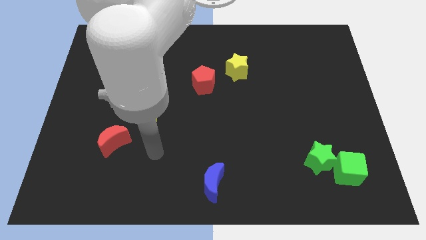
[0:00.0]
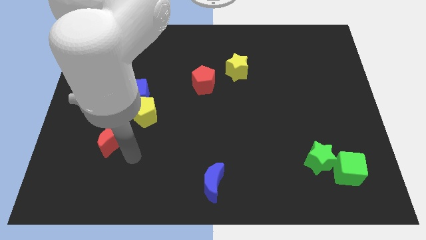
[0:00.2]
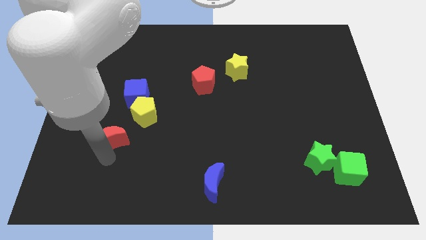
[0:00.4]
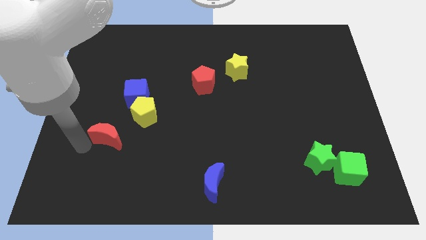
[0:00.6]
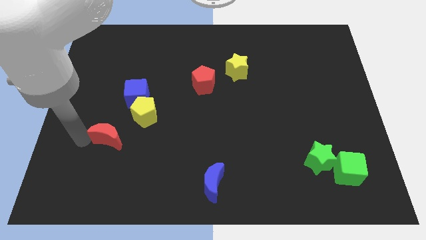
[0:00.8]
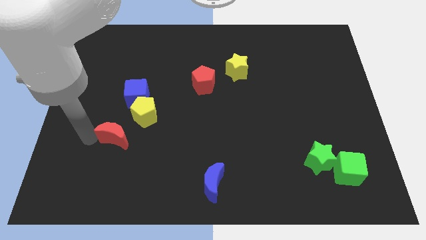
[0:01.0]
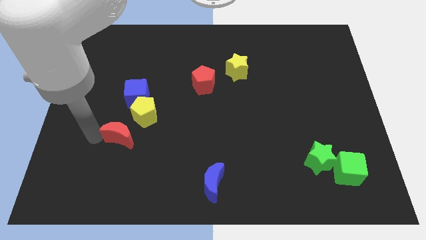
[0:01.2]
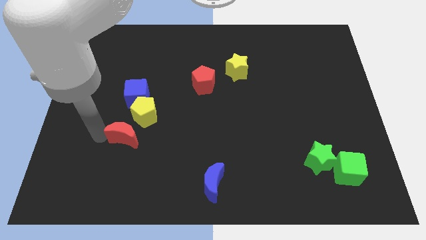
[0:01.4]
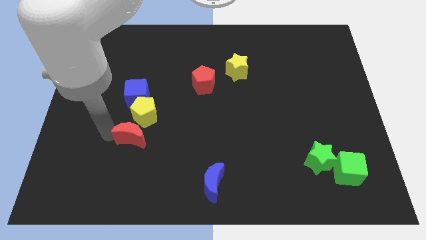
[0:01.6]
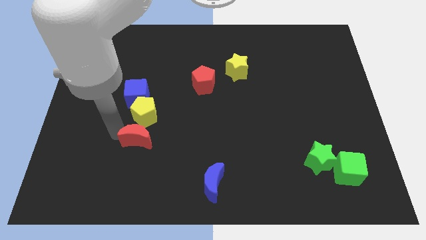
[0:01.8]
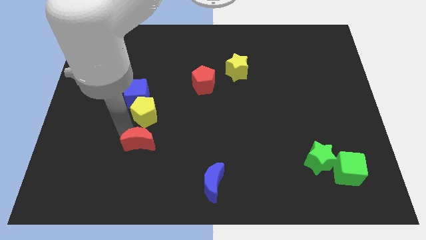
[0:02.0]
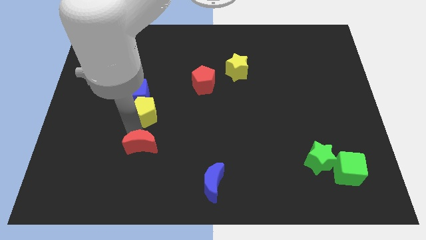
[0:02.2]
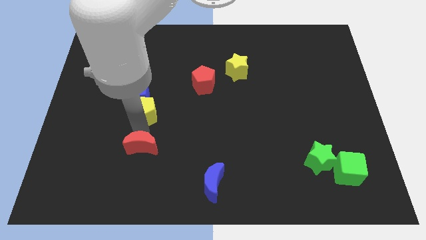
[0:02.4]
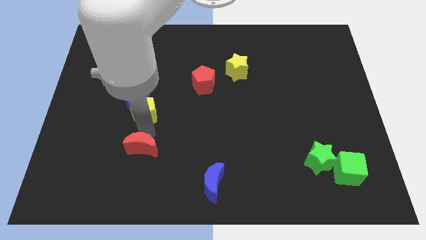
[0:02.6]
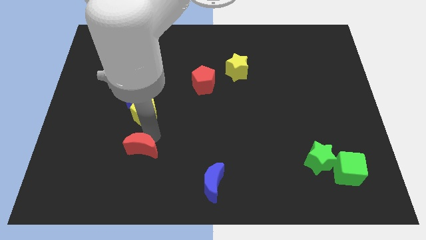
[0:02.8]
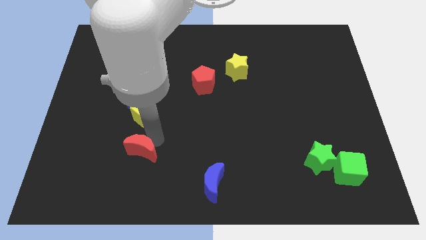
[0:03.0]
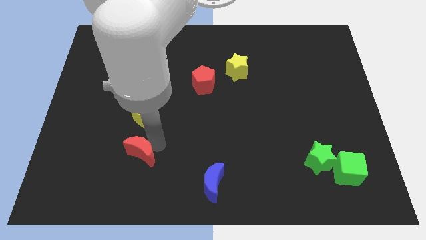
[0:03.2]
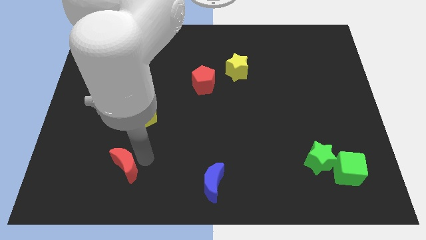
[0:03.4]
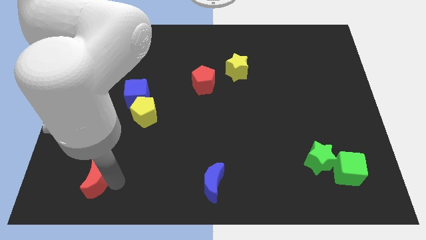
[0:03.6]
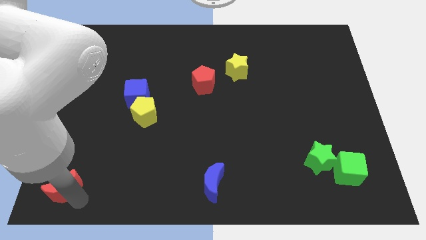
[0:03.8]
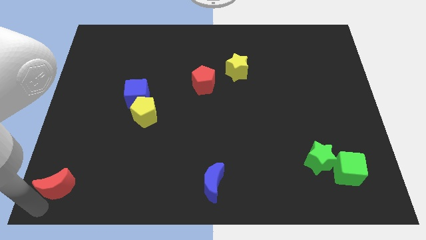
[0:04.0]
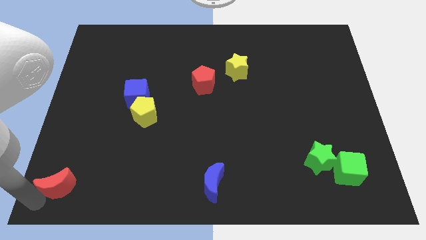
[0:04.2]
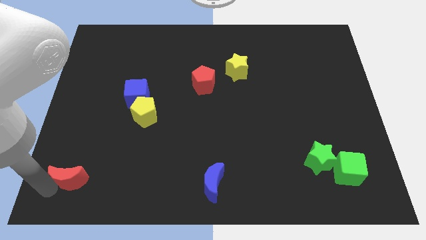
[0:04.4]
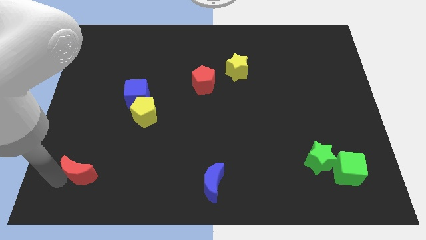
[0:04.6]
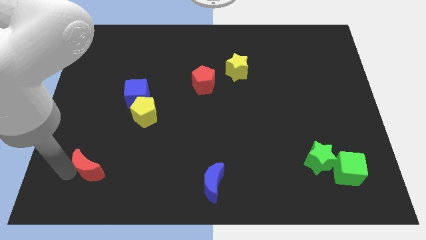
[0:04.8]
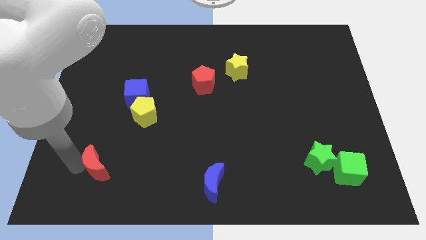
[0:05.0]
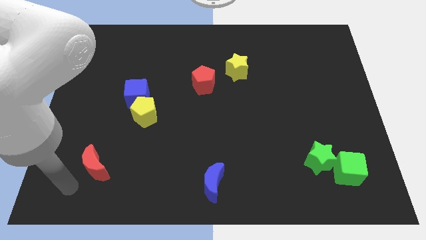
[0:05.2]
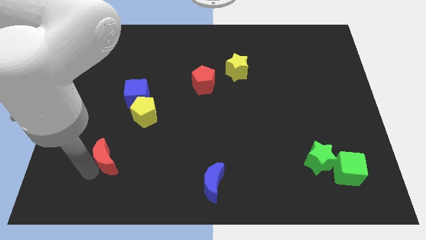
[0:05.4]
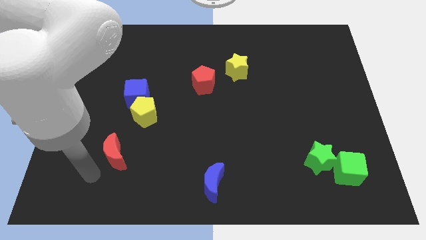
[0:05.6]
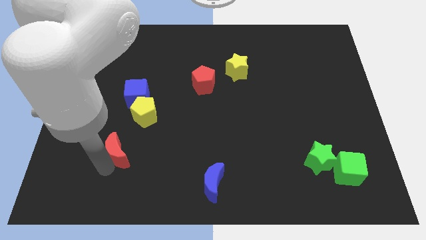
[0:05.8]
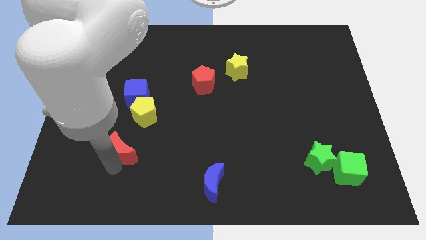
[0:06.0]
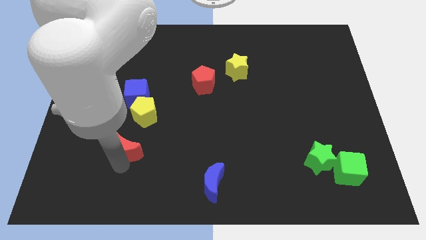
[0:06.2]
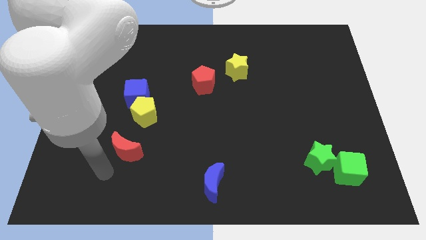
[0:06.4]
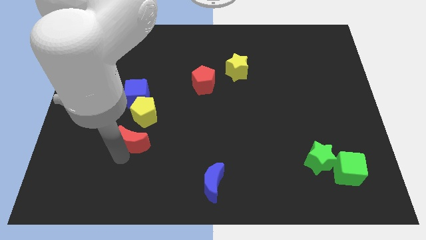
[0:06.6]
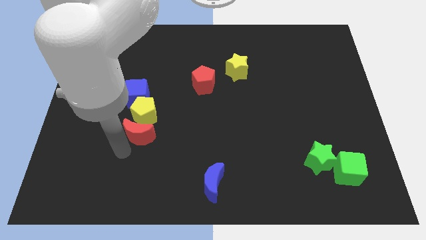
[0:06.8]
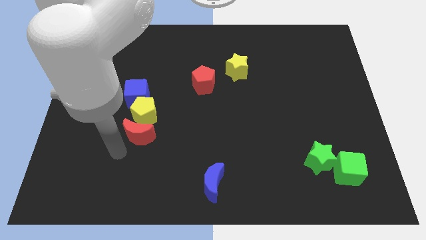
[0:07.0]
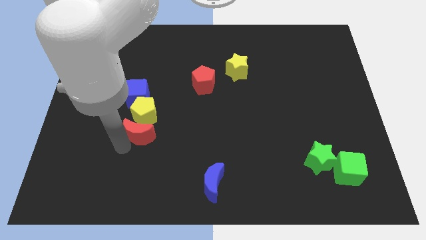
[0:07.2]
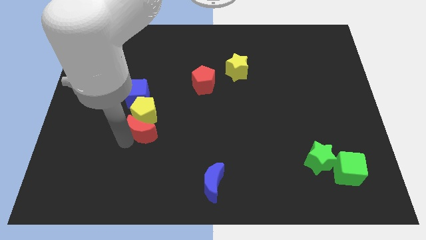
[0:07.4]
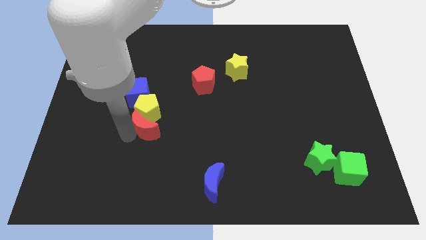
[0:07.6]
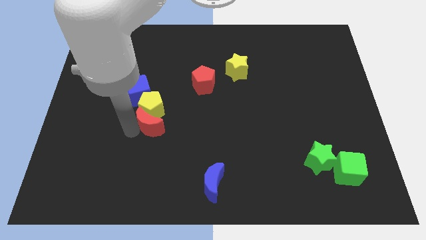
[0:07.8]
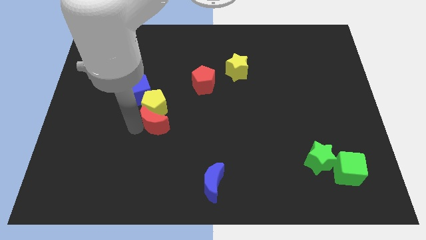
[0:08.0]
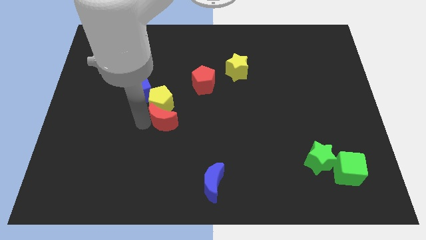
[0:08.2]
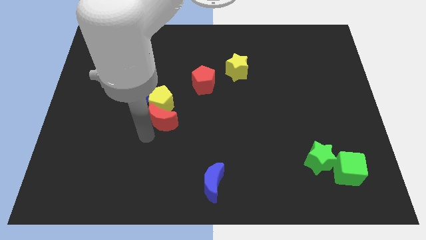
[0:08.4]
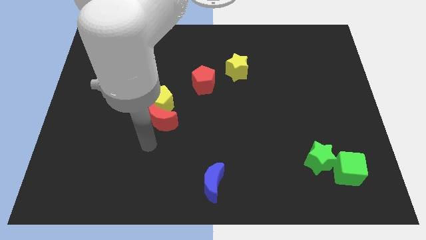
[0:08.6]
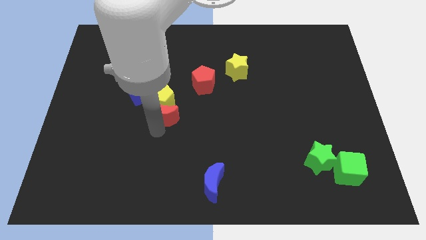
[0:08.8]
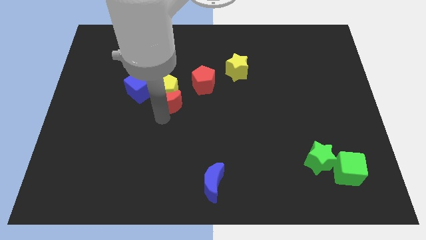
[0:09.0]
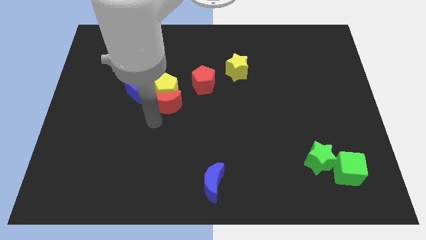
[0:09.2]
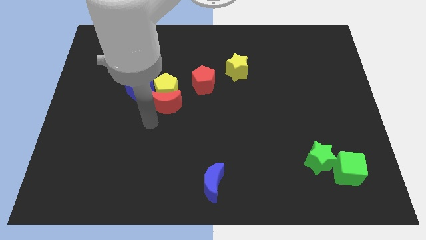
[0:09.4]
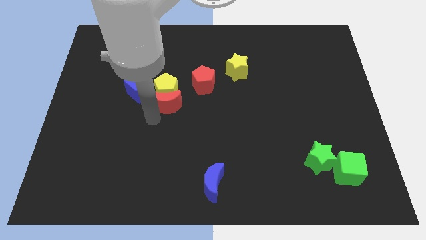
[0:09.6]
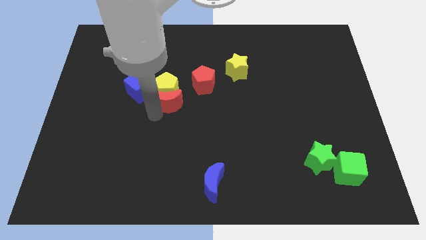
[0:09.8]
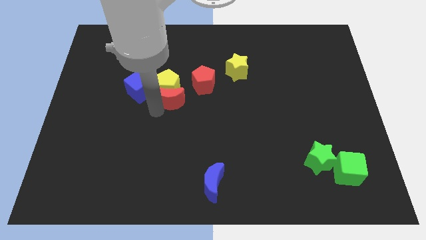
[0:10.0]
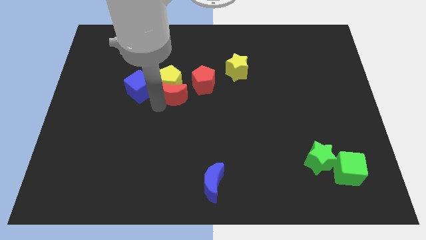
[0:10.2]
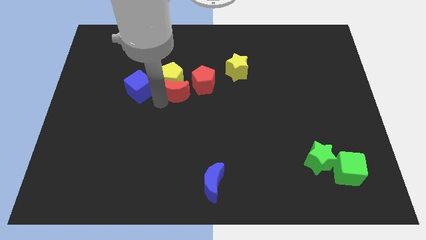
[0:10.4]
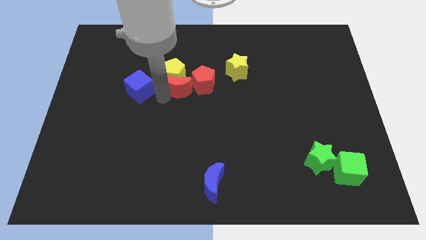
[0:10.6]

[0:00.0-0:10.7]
push the red moon up and right diagonally

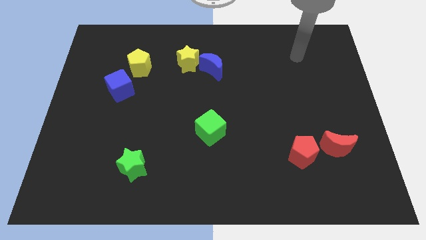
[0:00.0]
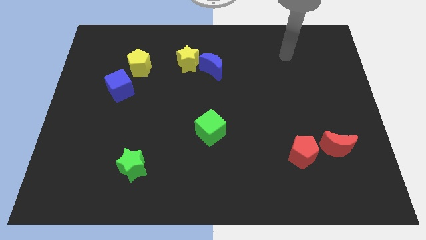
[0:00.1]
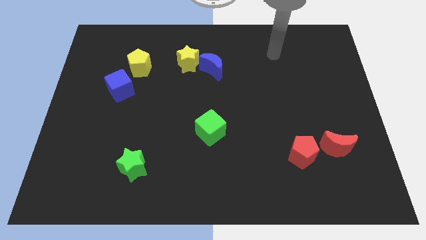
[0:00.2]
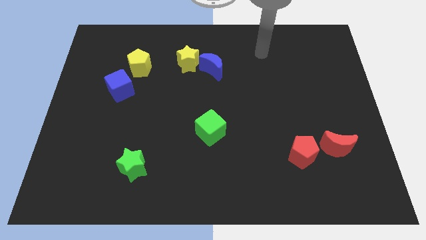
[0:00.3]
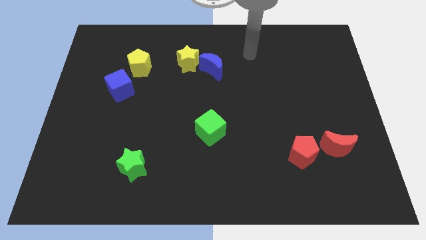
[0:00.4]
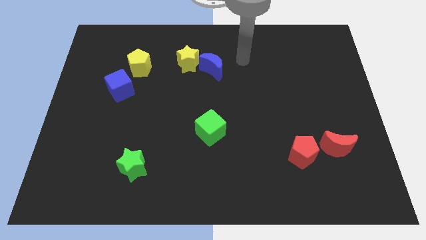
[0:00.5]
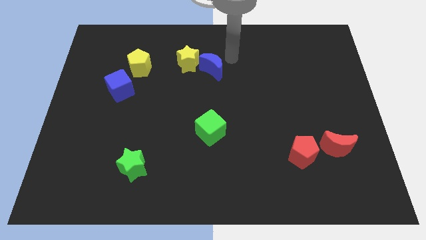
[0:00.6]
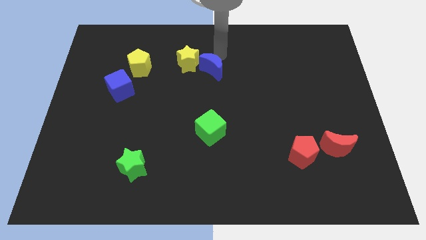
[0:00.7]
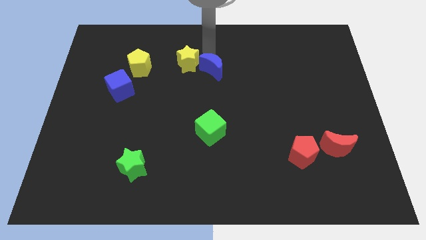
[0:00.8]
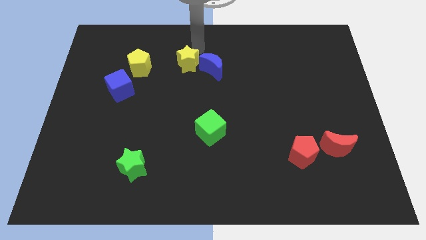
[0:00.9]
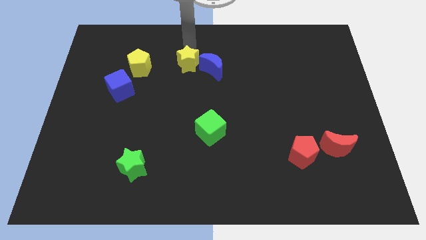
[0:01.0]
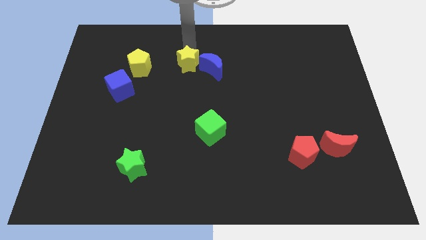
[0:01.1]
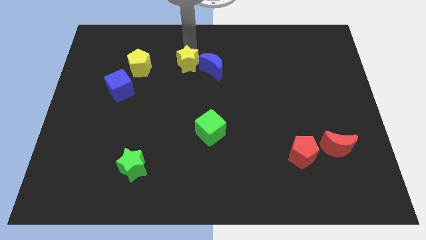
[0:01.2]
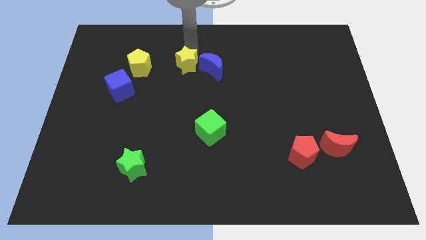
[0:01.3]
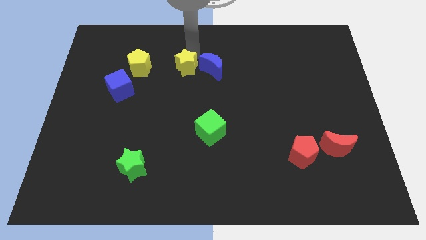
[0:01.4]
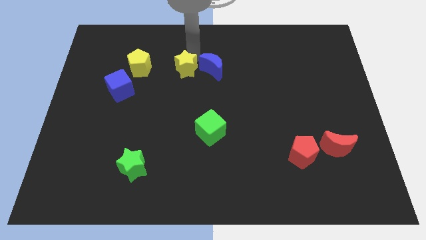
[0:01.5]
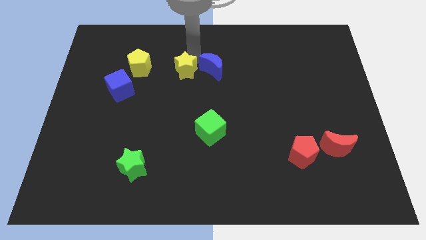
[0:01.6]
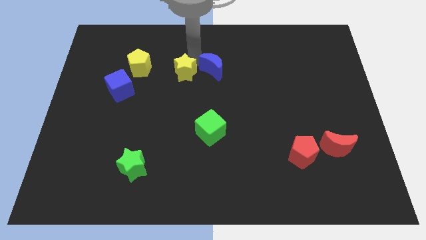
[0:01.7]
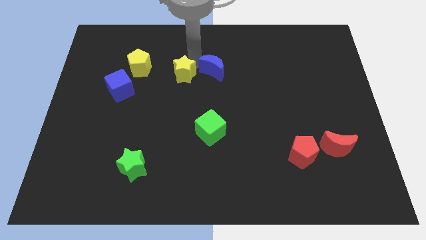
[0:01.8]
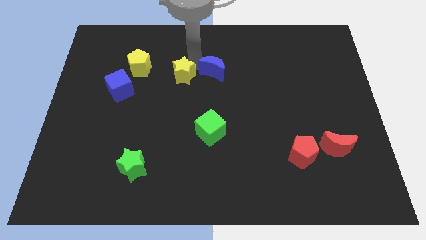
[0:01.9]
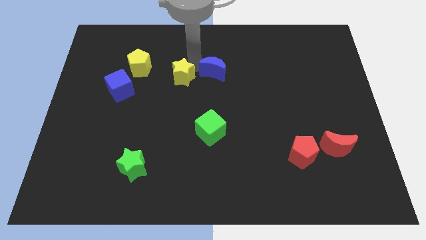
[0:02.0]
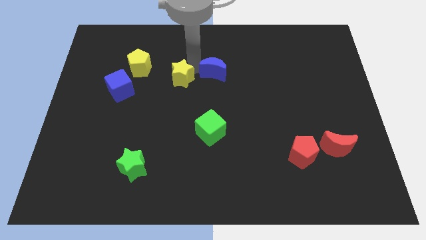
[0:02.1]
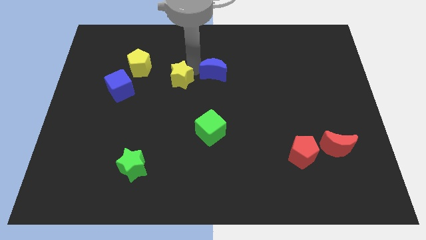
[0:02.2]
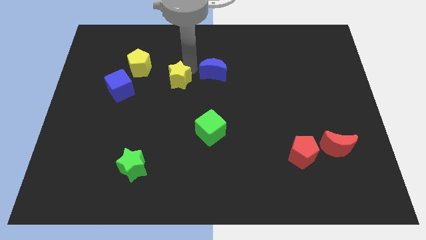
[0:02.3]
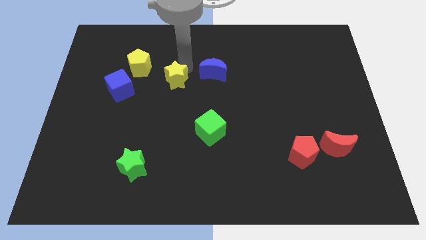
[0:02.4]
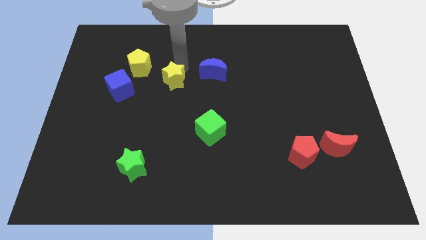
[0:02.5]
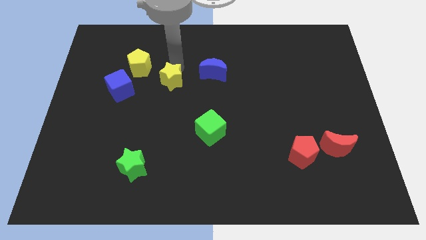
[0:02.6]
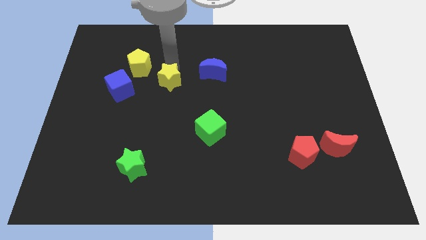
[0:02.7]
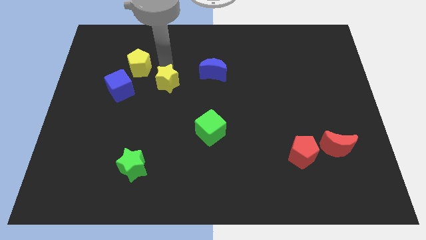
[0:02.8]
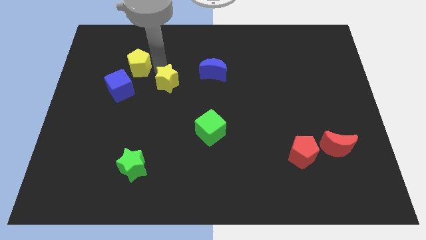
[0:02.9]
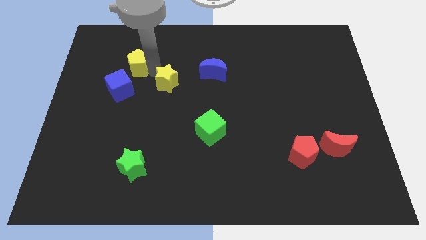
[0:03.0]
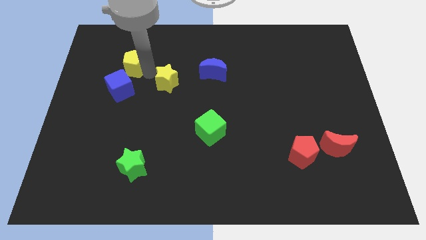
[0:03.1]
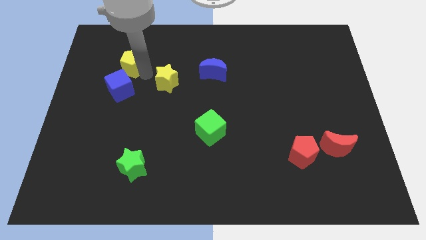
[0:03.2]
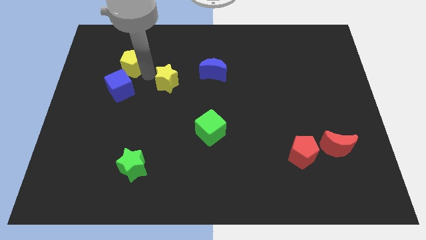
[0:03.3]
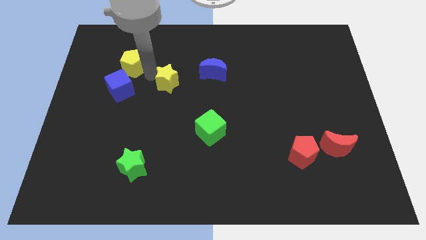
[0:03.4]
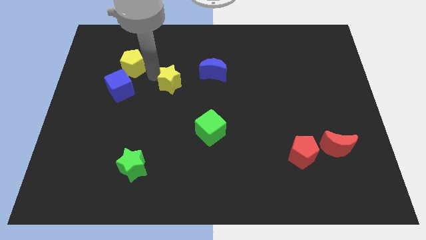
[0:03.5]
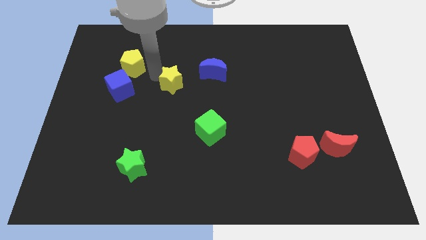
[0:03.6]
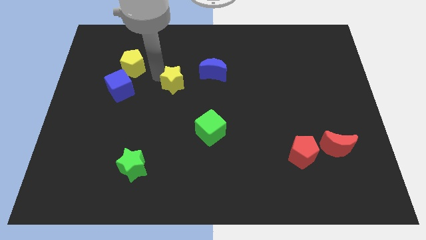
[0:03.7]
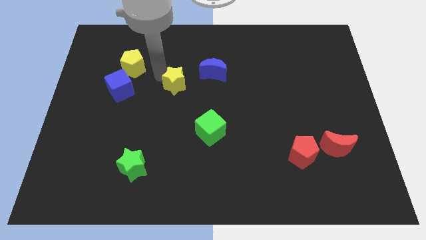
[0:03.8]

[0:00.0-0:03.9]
slightly move the yellow star downwards
